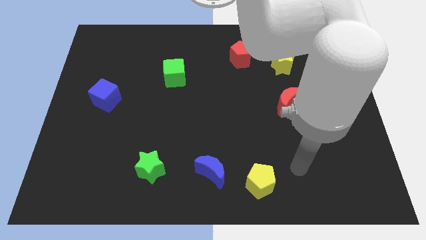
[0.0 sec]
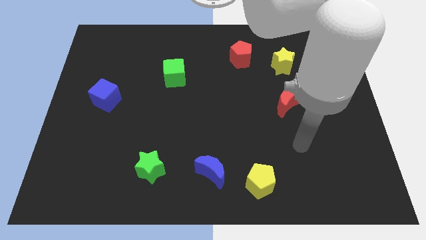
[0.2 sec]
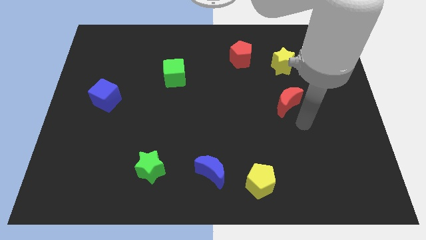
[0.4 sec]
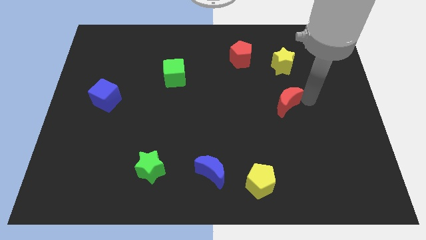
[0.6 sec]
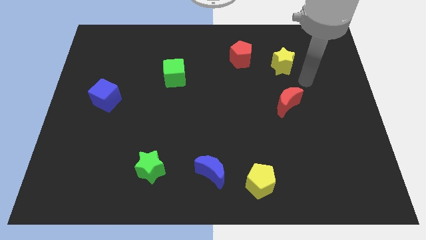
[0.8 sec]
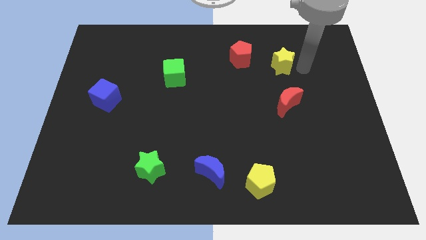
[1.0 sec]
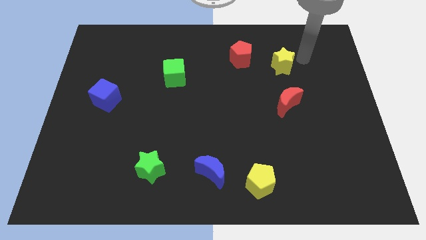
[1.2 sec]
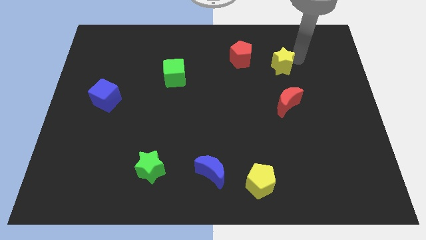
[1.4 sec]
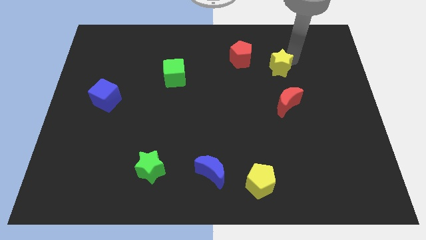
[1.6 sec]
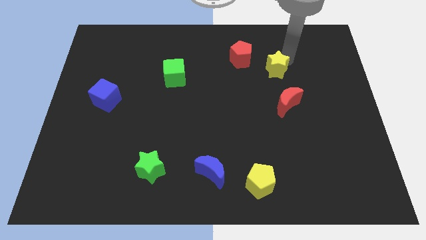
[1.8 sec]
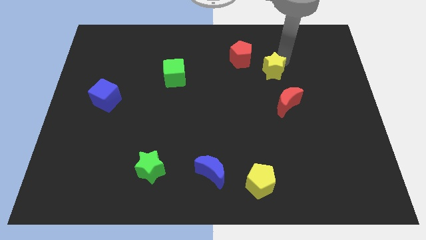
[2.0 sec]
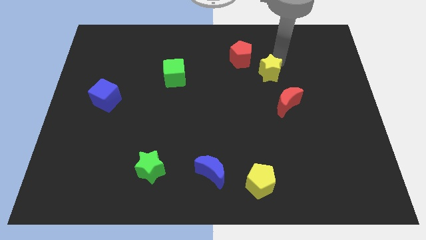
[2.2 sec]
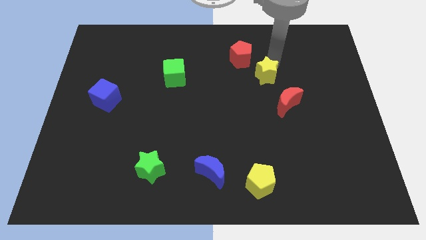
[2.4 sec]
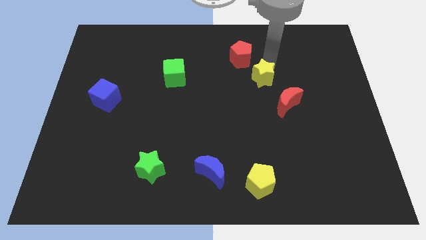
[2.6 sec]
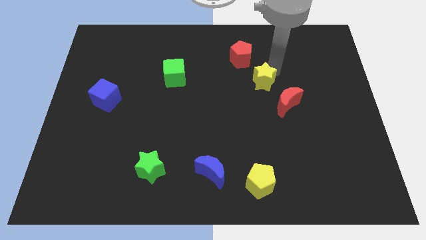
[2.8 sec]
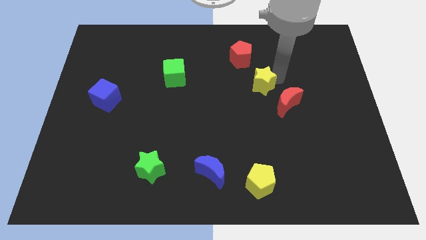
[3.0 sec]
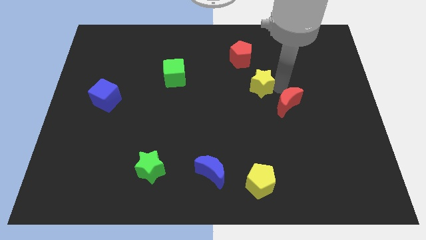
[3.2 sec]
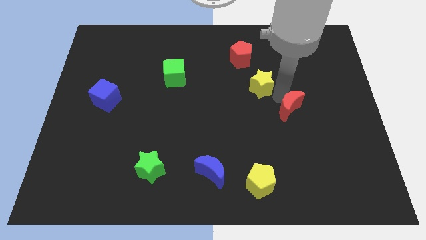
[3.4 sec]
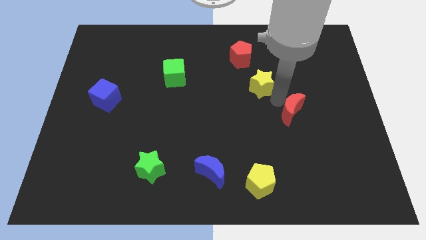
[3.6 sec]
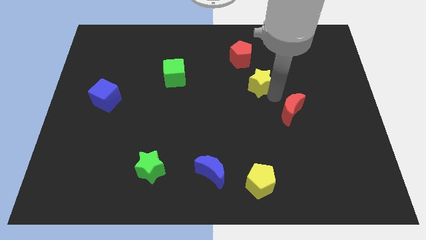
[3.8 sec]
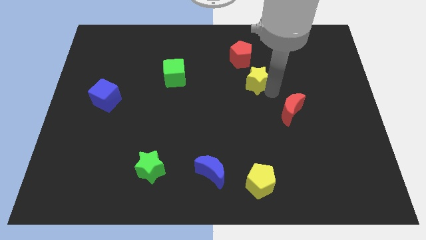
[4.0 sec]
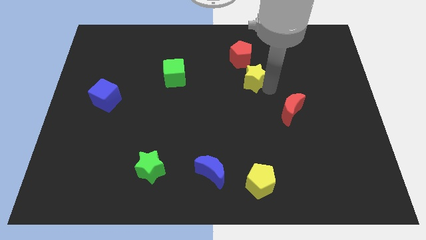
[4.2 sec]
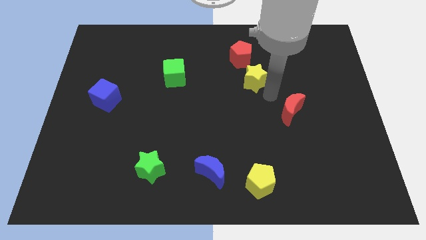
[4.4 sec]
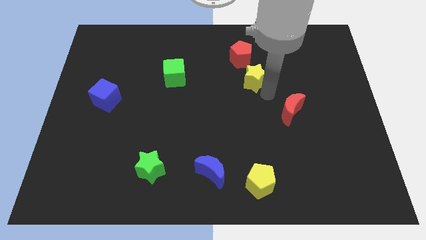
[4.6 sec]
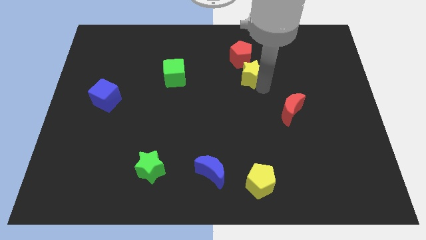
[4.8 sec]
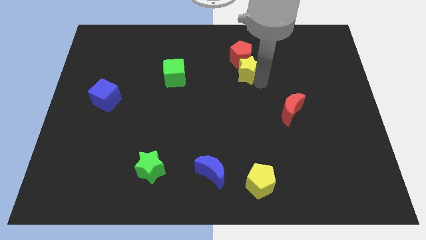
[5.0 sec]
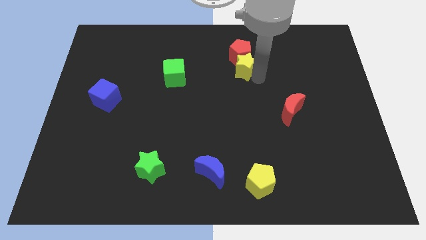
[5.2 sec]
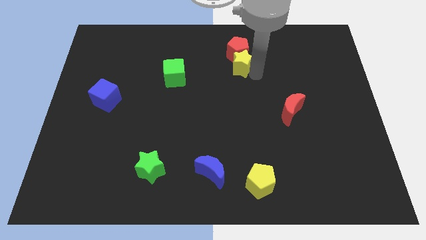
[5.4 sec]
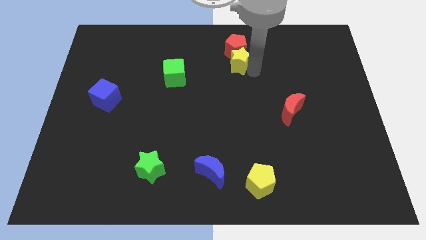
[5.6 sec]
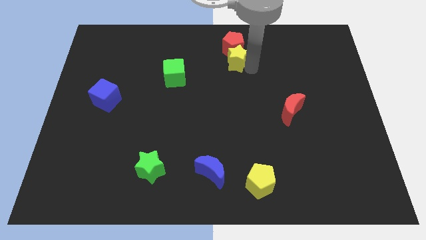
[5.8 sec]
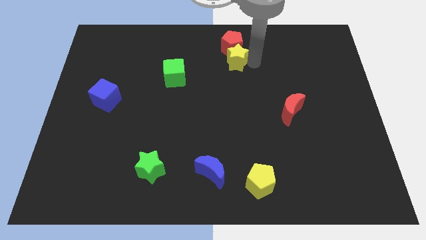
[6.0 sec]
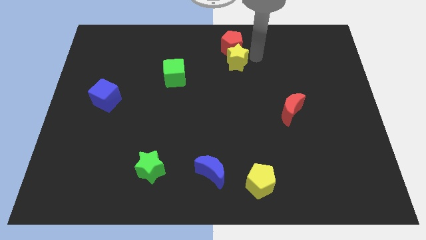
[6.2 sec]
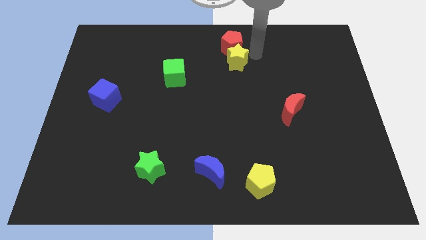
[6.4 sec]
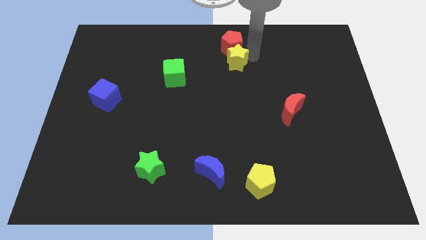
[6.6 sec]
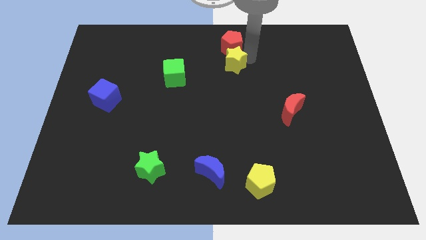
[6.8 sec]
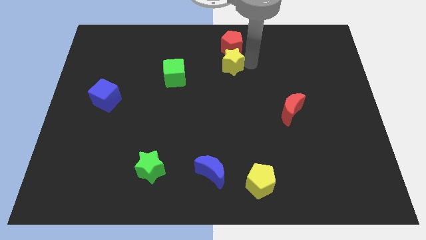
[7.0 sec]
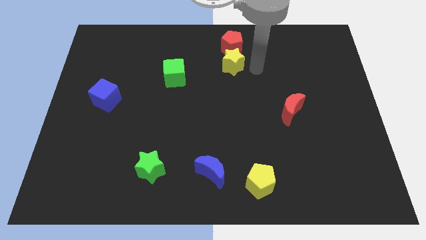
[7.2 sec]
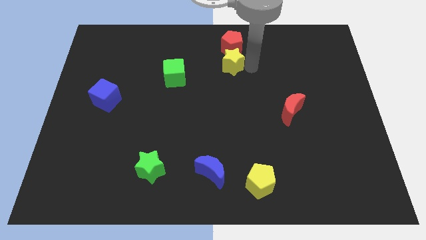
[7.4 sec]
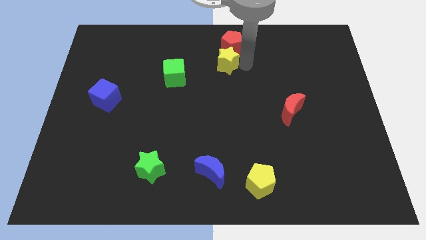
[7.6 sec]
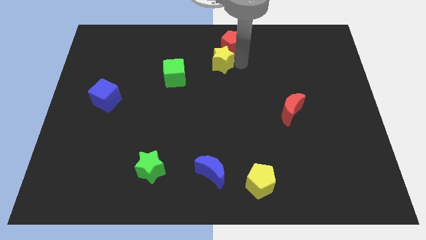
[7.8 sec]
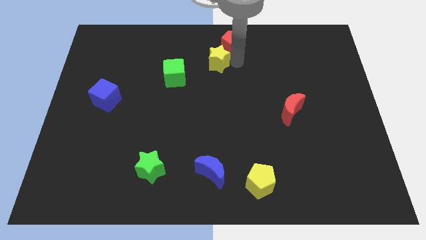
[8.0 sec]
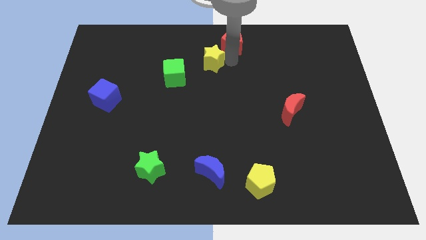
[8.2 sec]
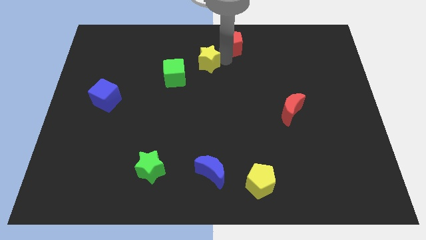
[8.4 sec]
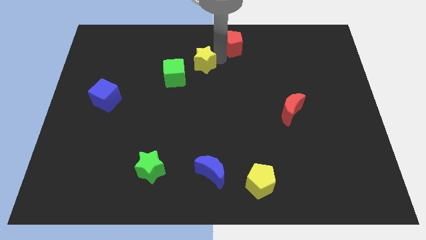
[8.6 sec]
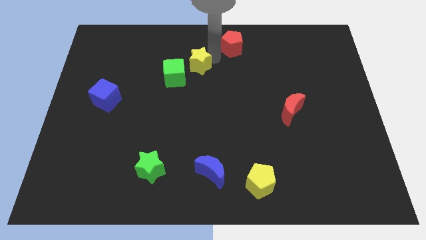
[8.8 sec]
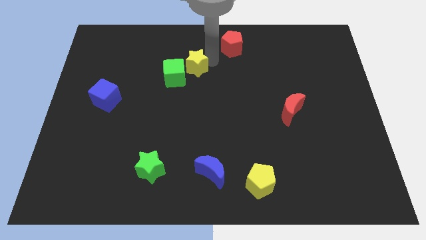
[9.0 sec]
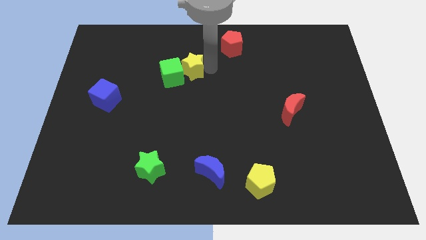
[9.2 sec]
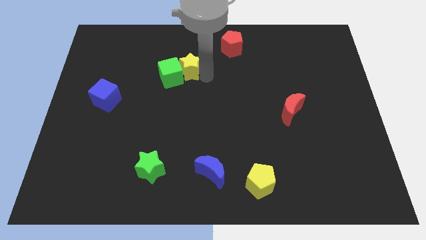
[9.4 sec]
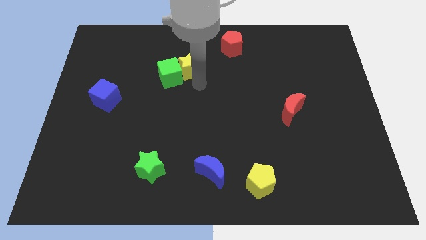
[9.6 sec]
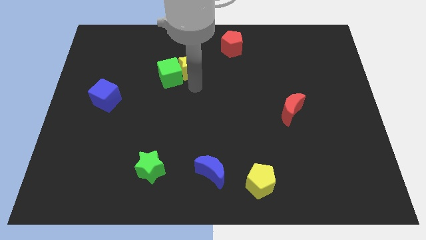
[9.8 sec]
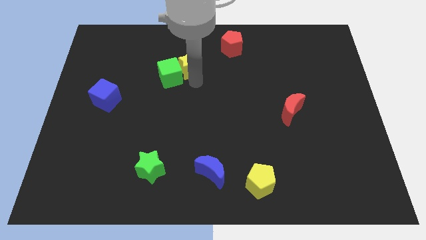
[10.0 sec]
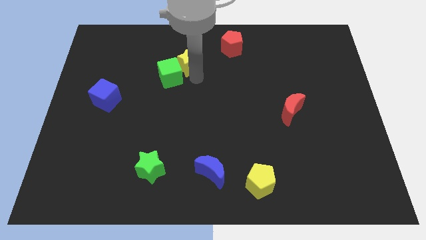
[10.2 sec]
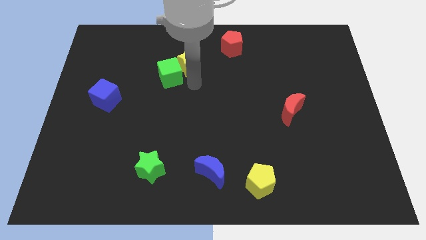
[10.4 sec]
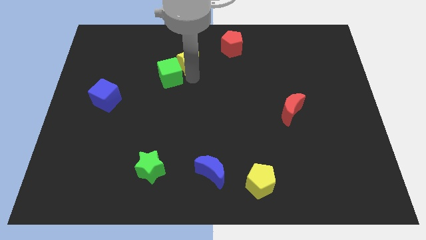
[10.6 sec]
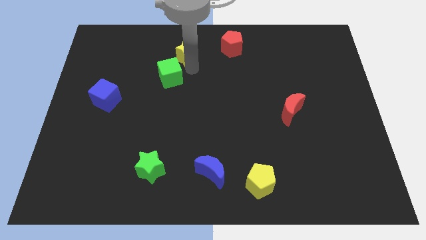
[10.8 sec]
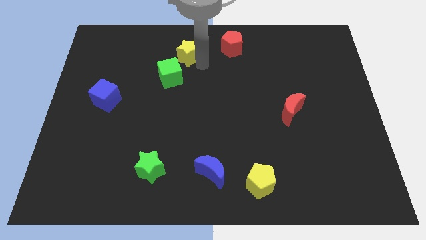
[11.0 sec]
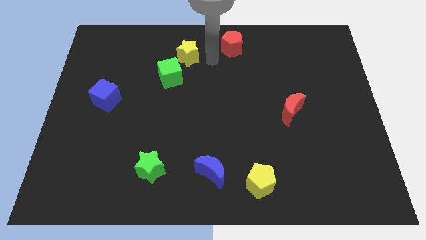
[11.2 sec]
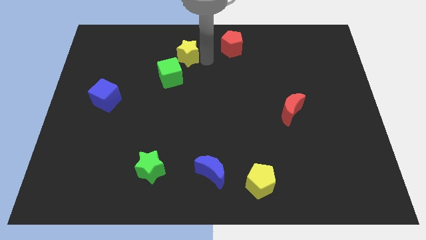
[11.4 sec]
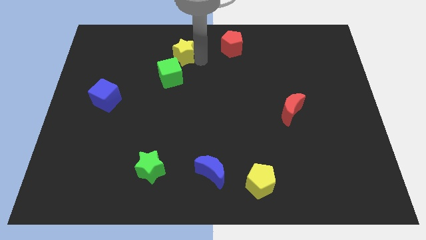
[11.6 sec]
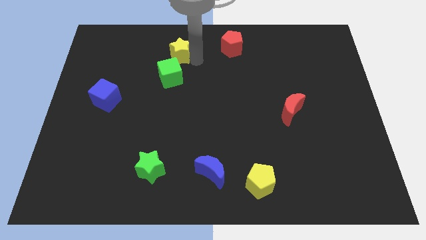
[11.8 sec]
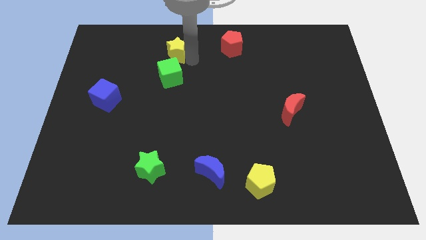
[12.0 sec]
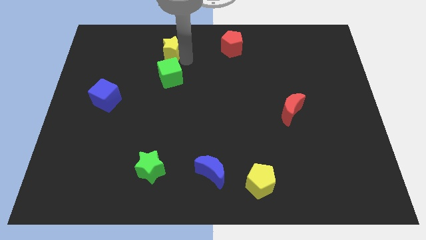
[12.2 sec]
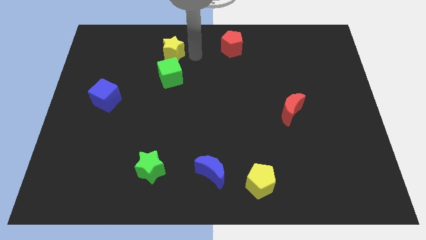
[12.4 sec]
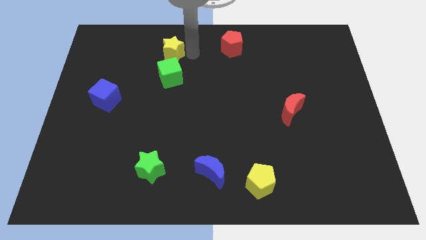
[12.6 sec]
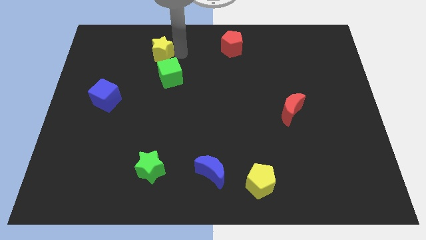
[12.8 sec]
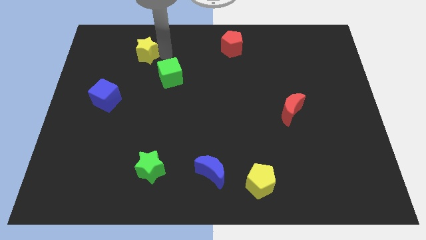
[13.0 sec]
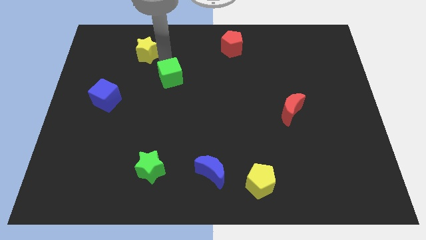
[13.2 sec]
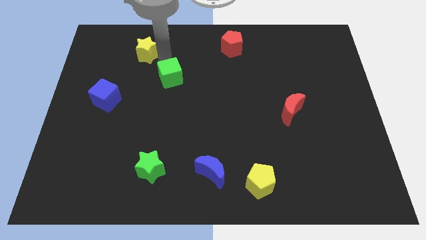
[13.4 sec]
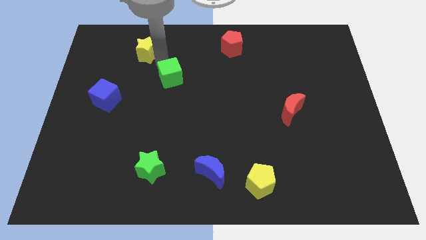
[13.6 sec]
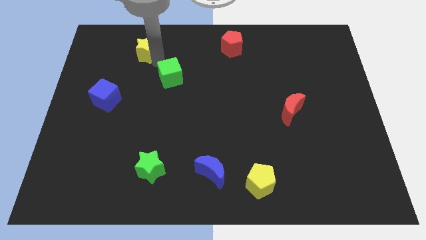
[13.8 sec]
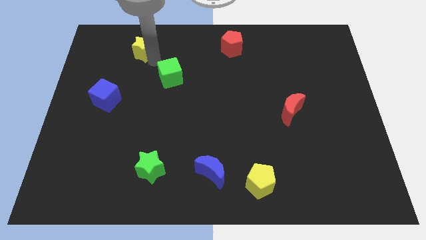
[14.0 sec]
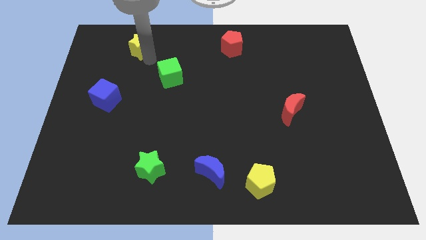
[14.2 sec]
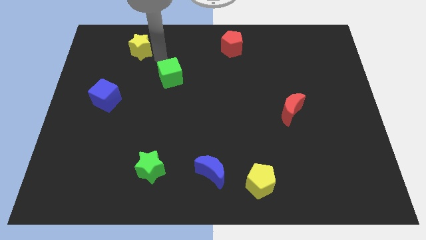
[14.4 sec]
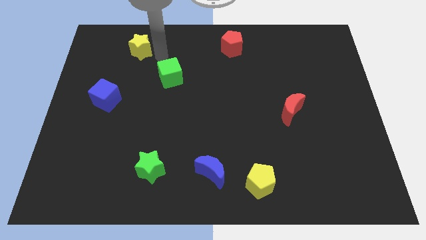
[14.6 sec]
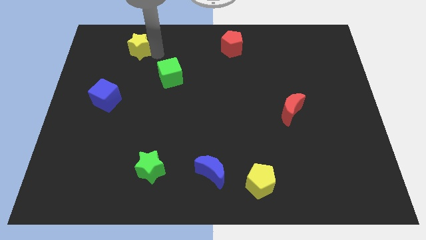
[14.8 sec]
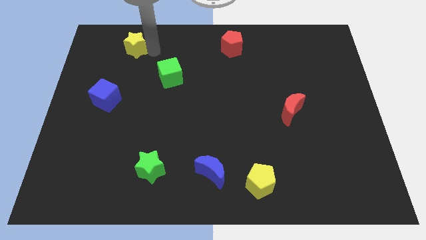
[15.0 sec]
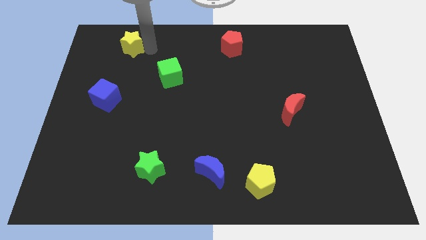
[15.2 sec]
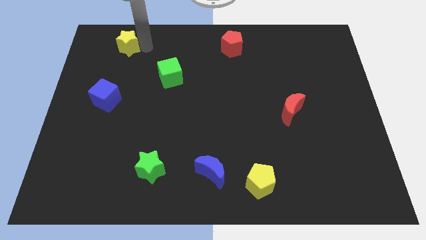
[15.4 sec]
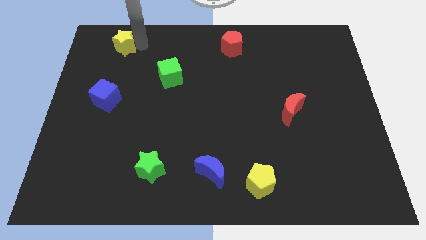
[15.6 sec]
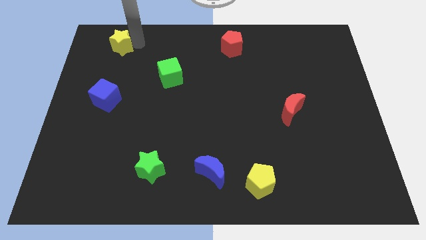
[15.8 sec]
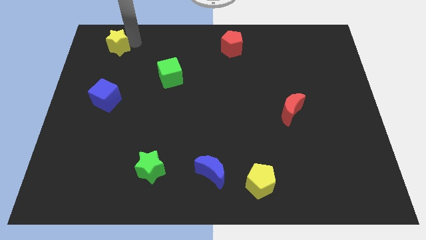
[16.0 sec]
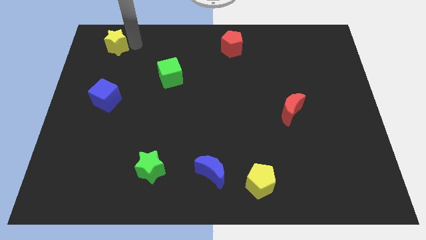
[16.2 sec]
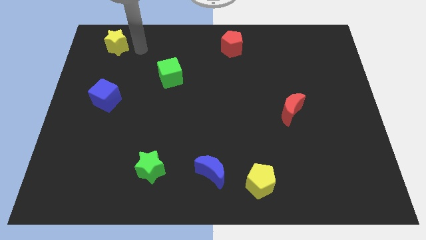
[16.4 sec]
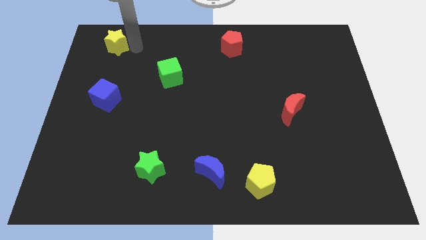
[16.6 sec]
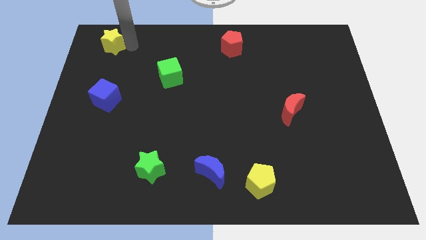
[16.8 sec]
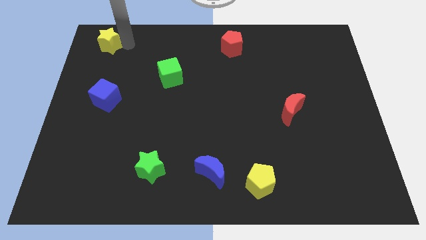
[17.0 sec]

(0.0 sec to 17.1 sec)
put the yellow star to the top left of the board
